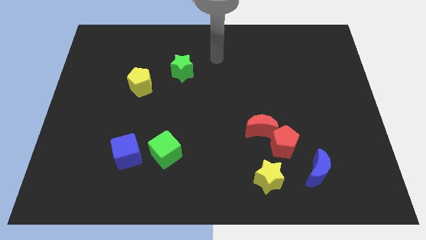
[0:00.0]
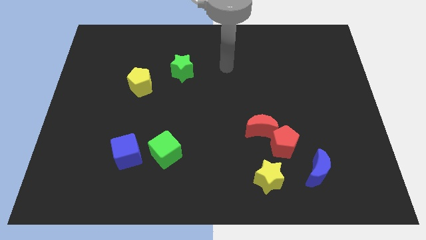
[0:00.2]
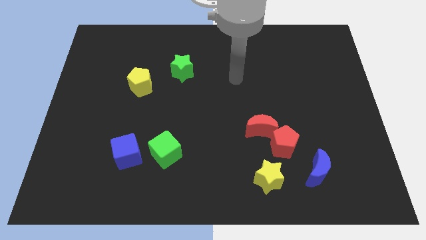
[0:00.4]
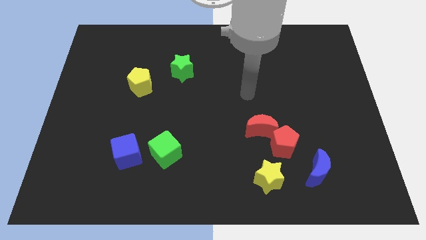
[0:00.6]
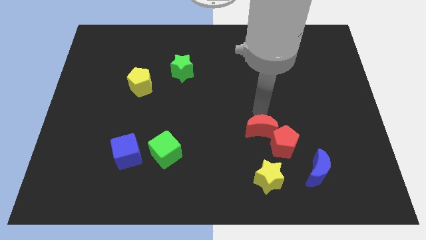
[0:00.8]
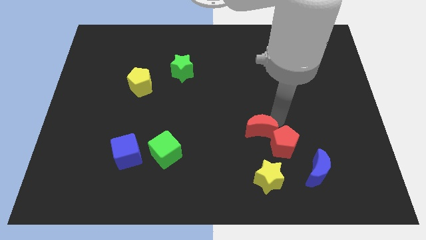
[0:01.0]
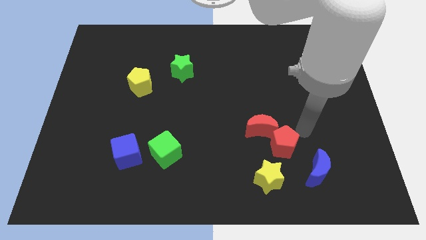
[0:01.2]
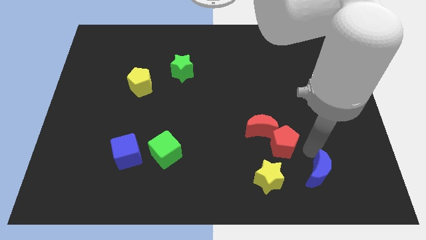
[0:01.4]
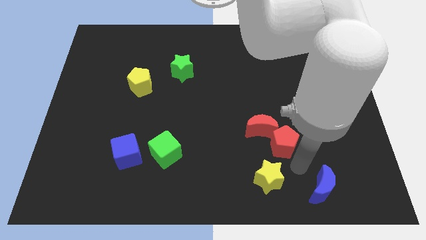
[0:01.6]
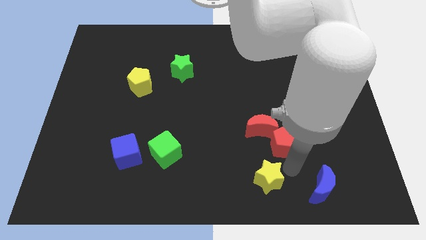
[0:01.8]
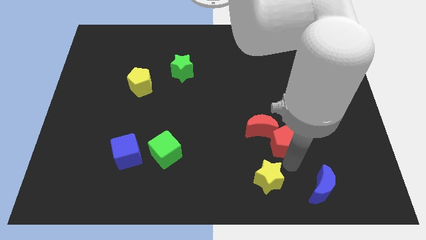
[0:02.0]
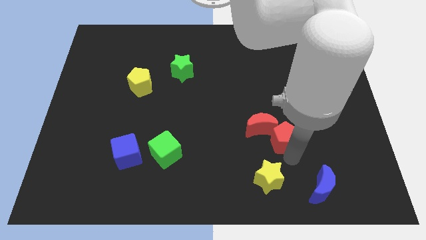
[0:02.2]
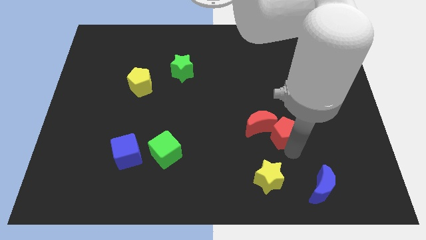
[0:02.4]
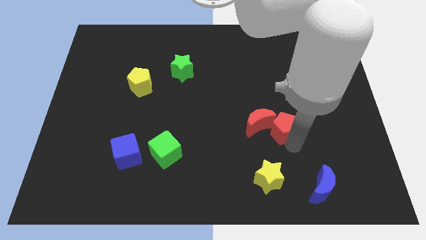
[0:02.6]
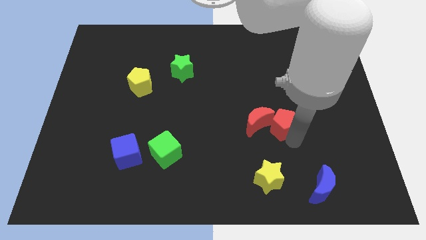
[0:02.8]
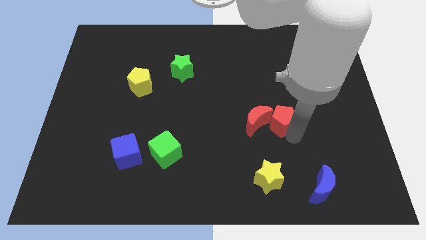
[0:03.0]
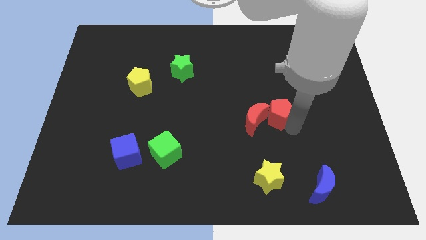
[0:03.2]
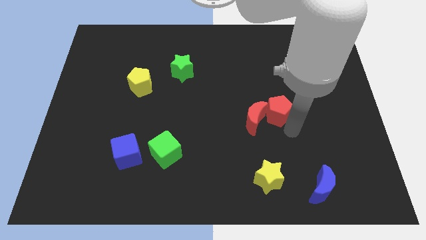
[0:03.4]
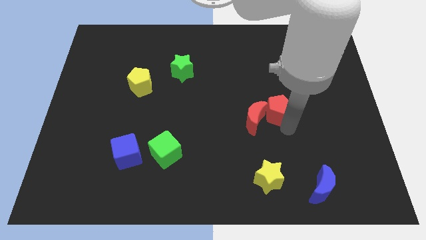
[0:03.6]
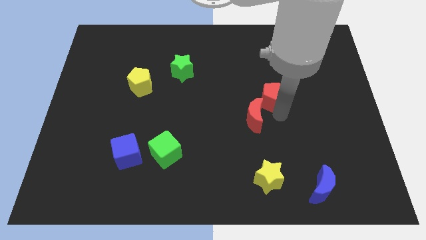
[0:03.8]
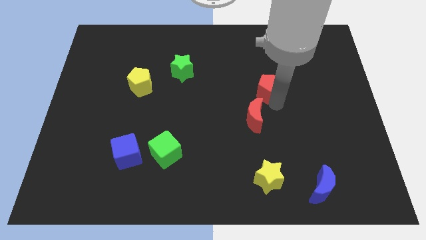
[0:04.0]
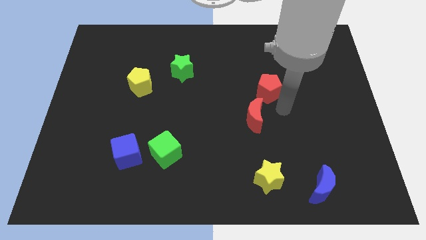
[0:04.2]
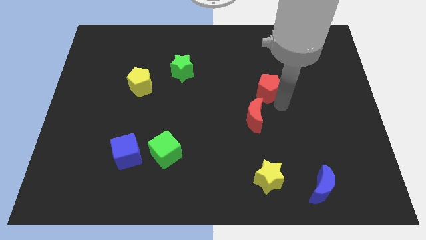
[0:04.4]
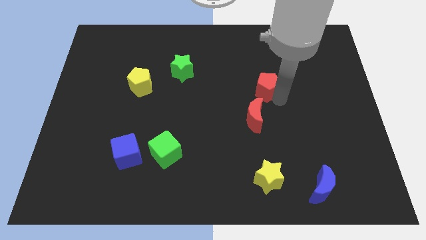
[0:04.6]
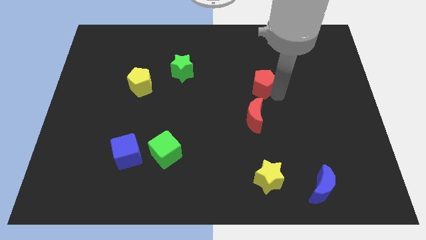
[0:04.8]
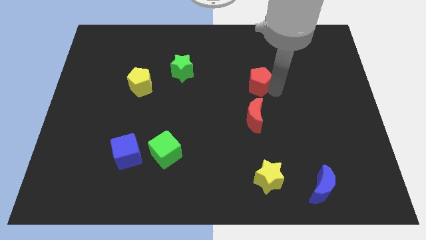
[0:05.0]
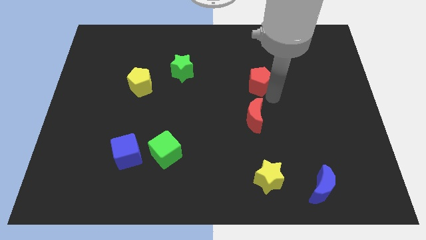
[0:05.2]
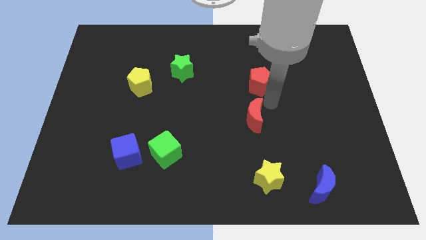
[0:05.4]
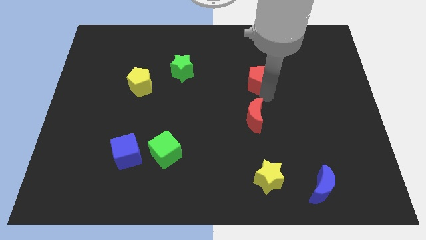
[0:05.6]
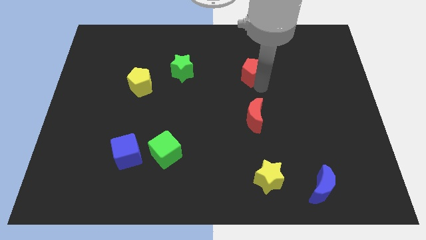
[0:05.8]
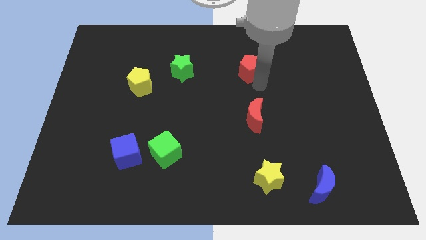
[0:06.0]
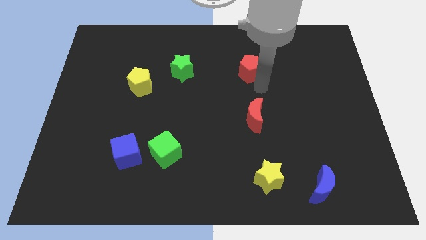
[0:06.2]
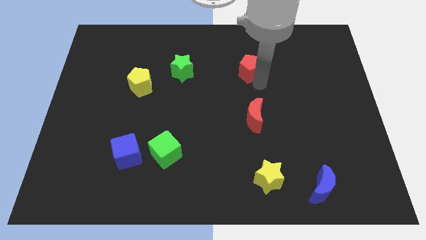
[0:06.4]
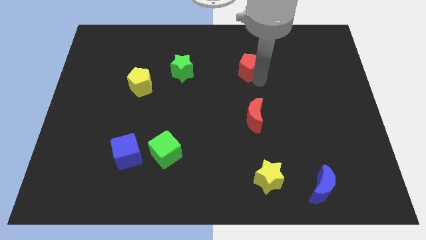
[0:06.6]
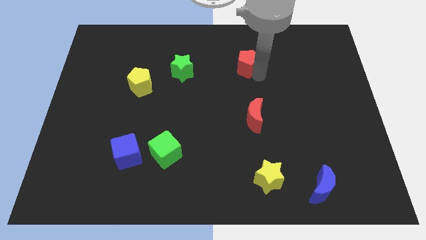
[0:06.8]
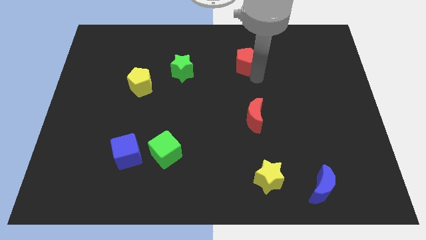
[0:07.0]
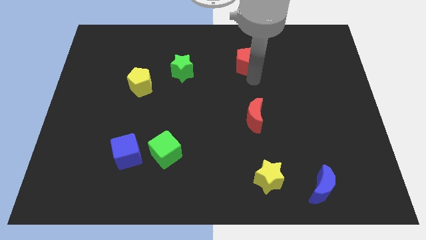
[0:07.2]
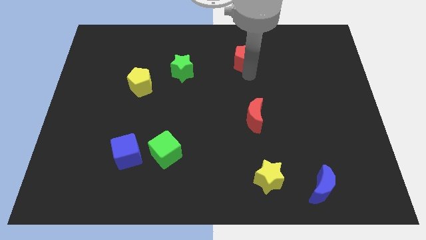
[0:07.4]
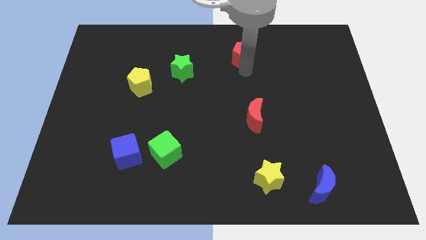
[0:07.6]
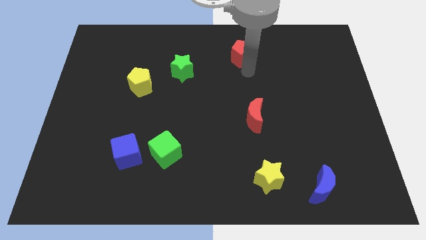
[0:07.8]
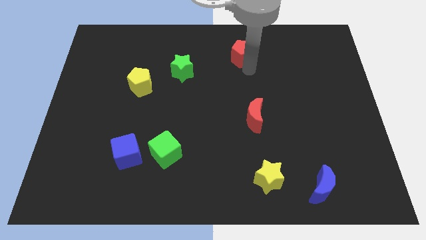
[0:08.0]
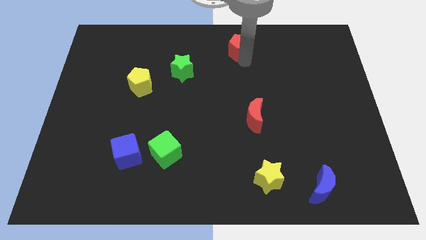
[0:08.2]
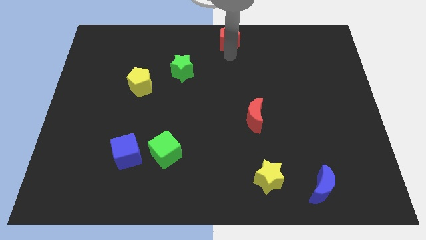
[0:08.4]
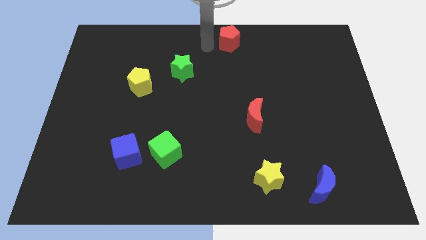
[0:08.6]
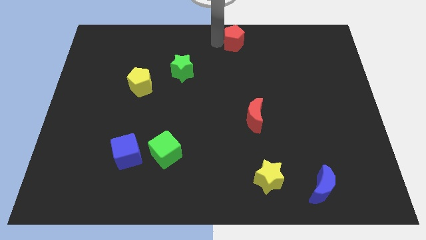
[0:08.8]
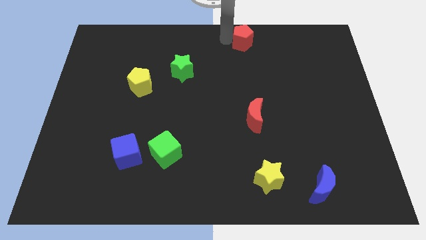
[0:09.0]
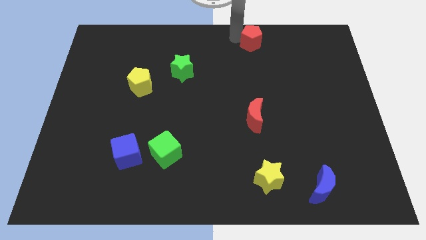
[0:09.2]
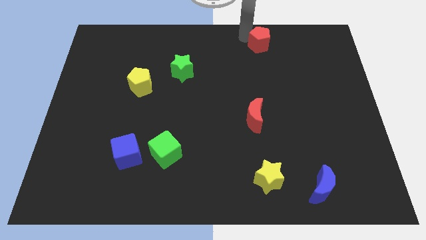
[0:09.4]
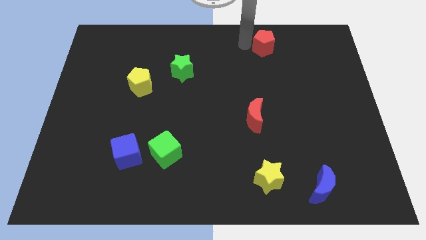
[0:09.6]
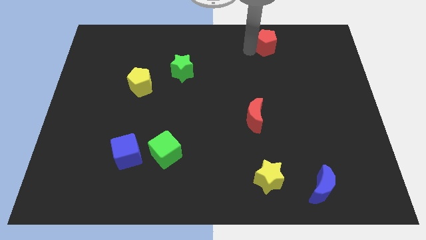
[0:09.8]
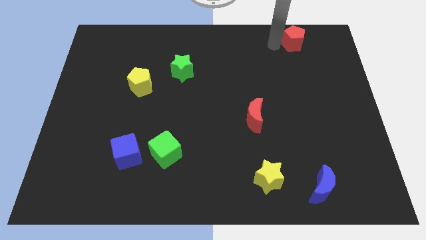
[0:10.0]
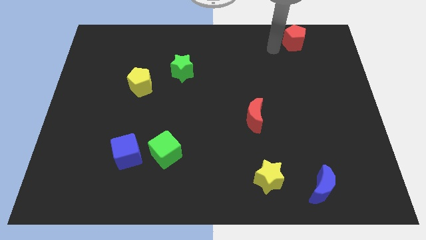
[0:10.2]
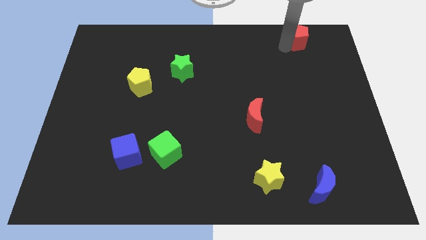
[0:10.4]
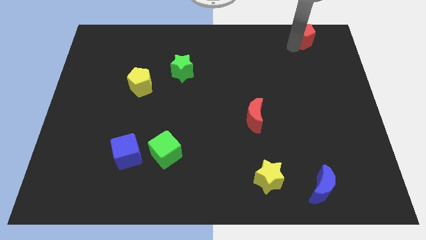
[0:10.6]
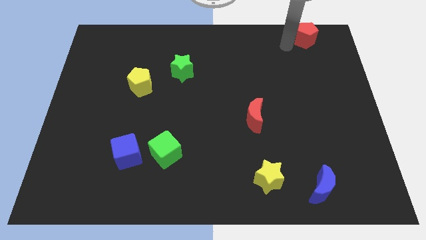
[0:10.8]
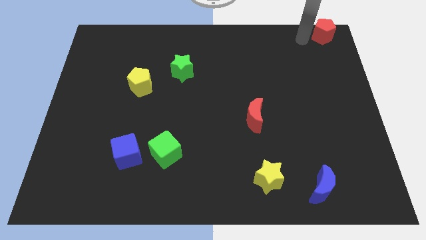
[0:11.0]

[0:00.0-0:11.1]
slide the red pentagon to the top right
